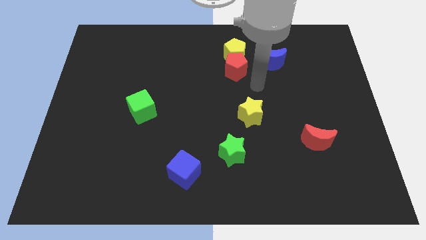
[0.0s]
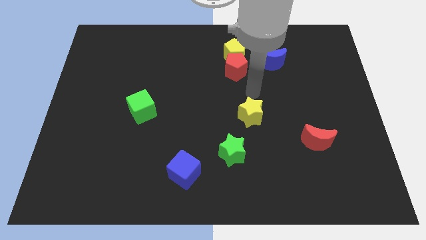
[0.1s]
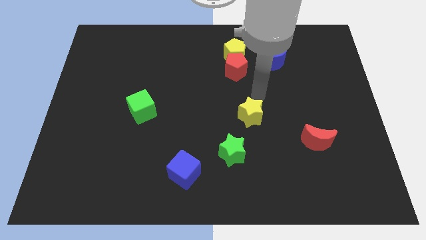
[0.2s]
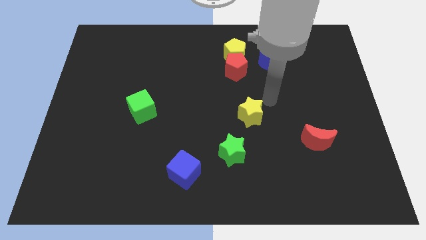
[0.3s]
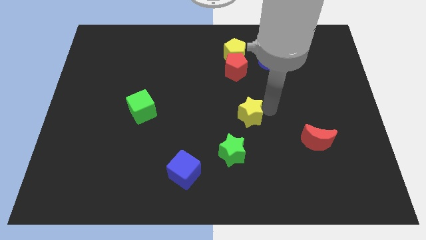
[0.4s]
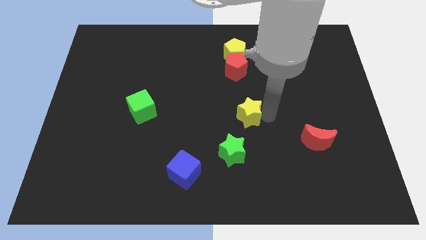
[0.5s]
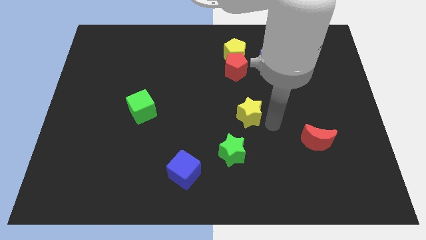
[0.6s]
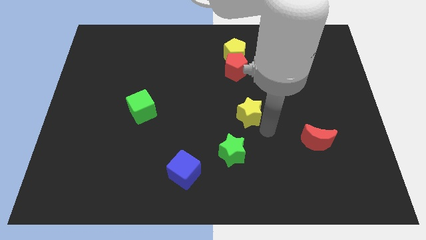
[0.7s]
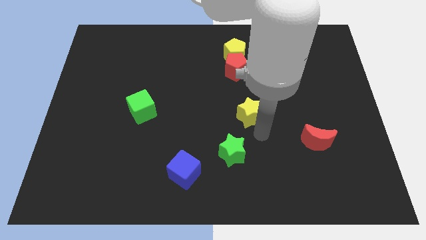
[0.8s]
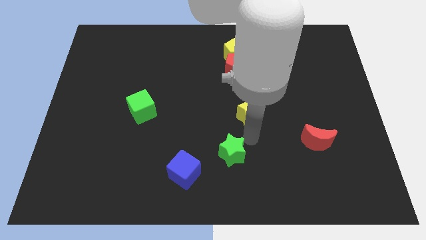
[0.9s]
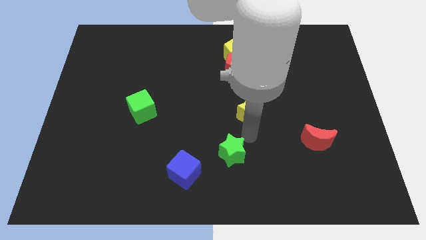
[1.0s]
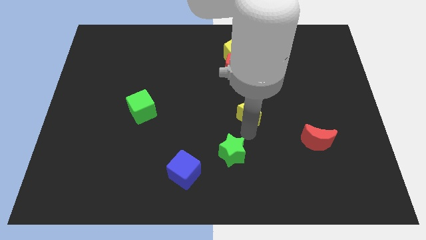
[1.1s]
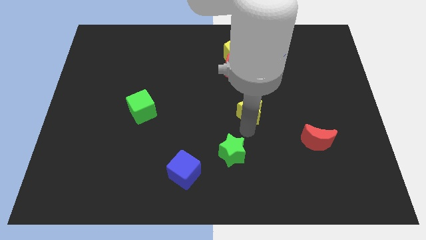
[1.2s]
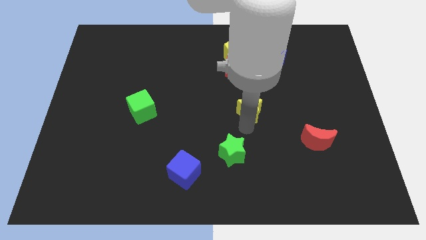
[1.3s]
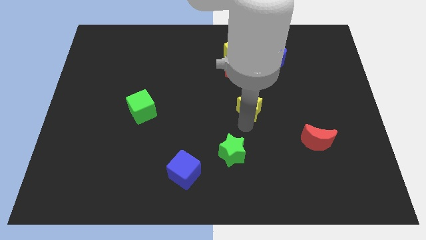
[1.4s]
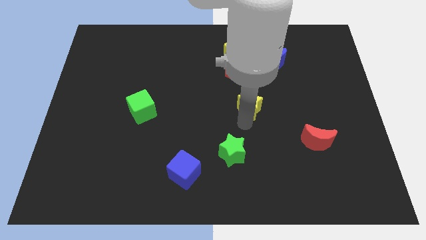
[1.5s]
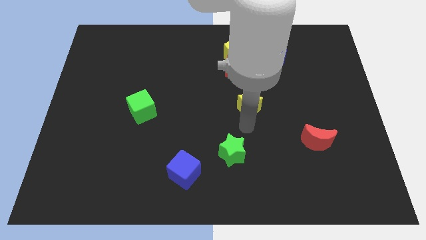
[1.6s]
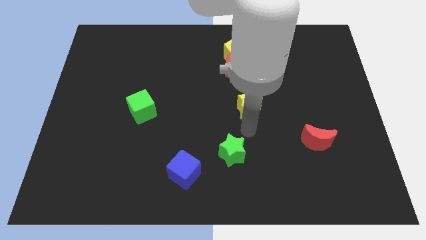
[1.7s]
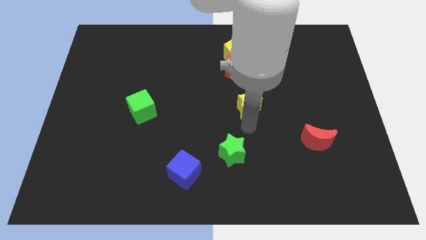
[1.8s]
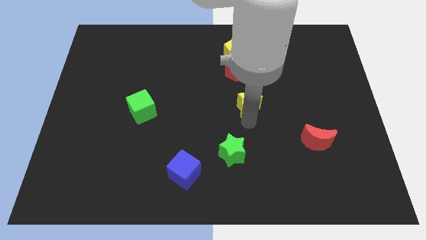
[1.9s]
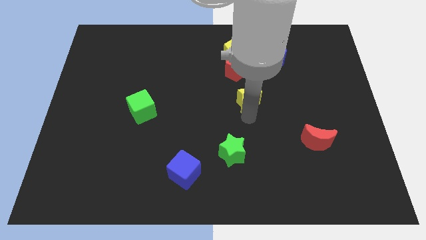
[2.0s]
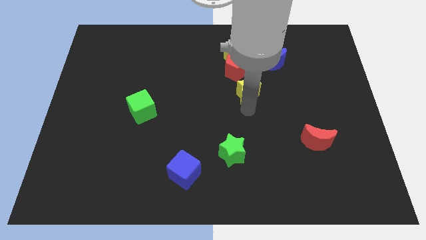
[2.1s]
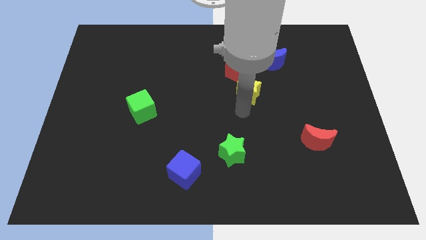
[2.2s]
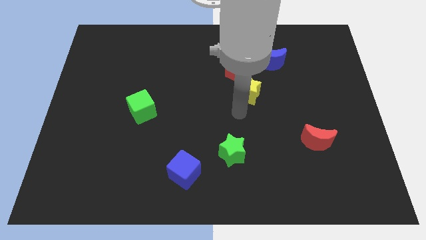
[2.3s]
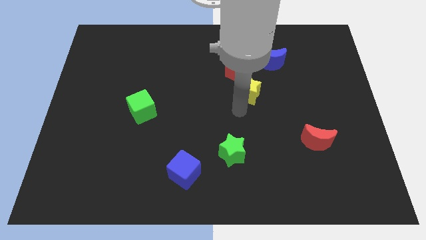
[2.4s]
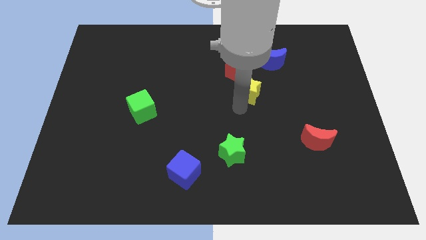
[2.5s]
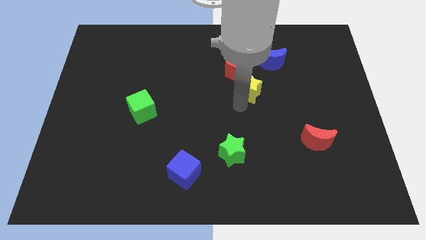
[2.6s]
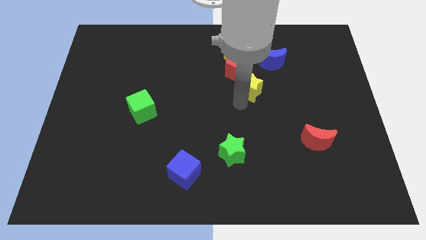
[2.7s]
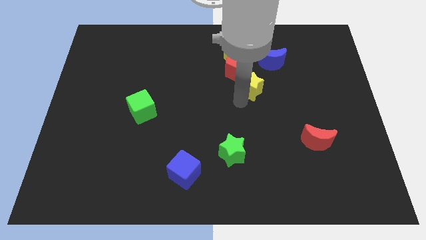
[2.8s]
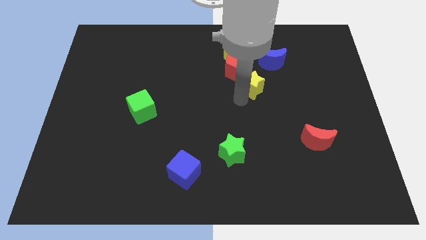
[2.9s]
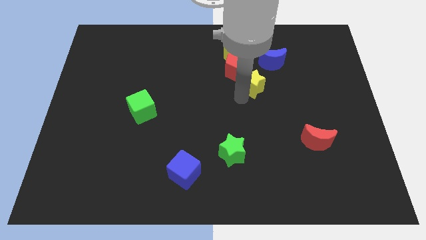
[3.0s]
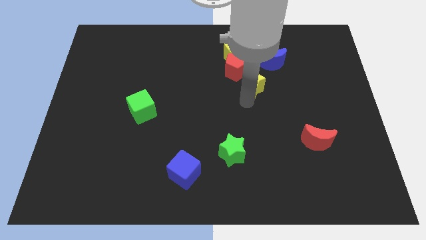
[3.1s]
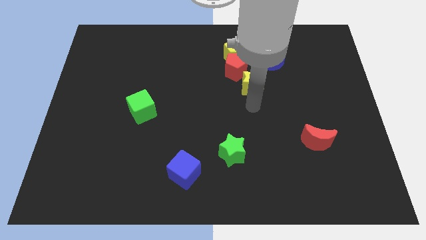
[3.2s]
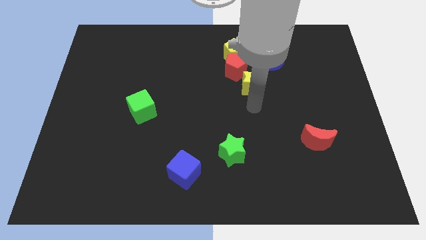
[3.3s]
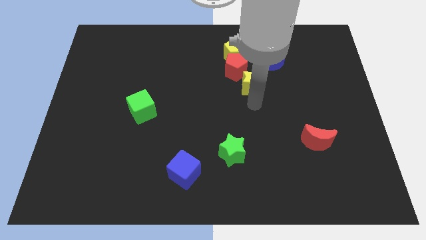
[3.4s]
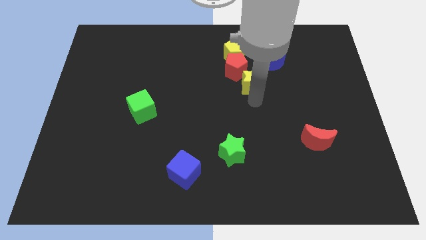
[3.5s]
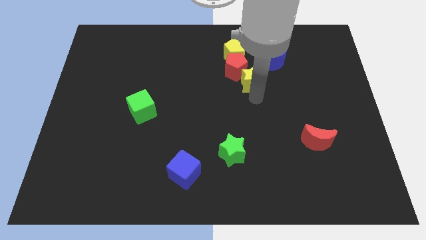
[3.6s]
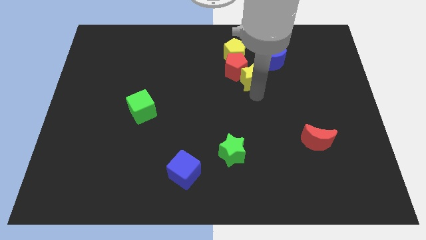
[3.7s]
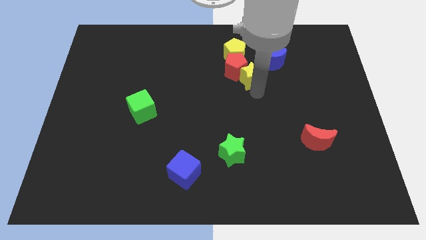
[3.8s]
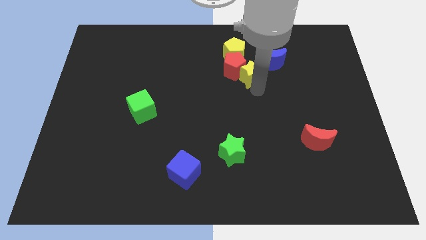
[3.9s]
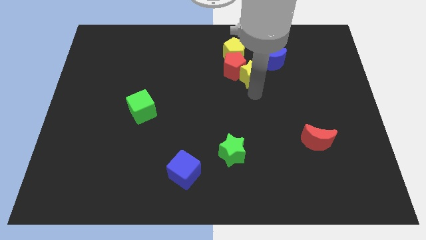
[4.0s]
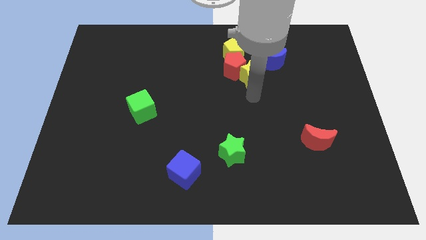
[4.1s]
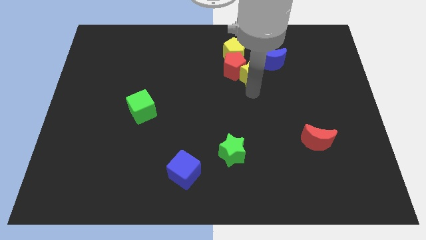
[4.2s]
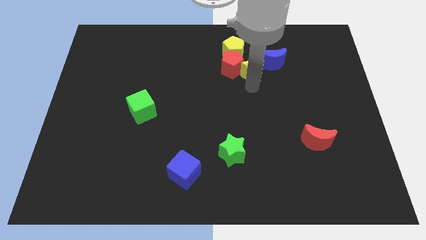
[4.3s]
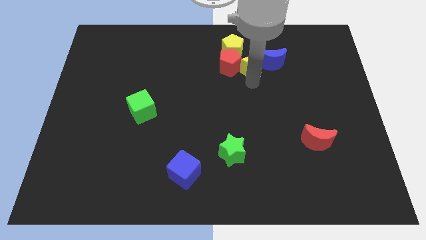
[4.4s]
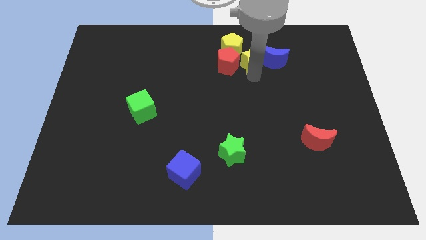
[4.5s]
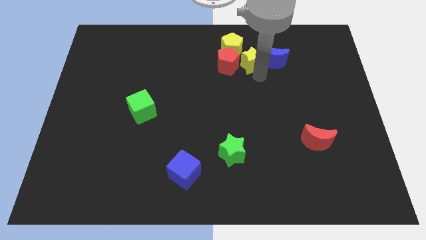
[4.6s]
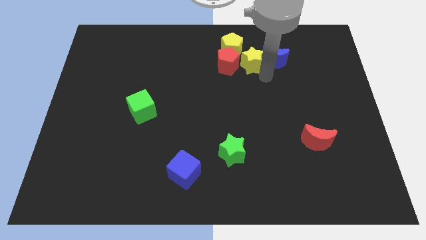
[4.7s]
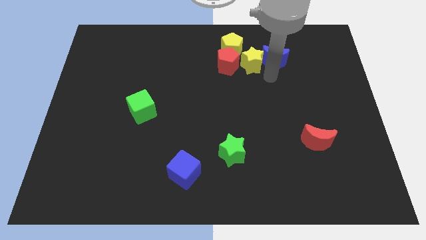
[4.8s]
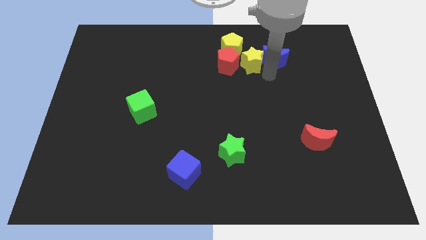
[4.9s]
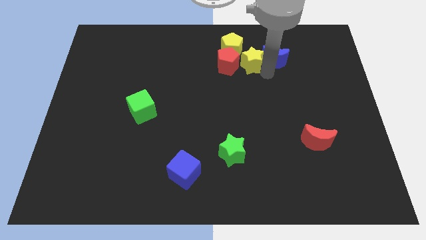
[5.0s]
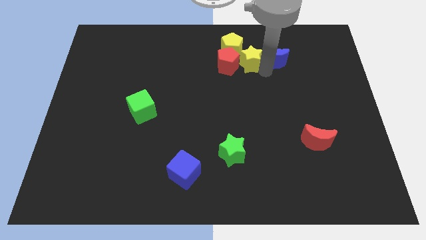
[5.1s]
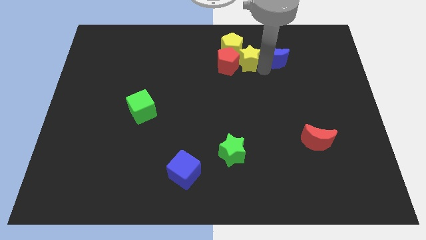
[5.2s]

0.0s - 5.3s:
slide the yellow star close to the yellow pentagon

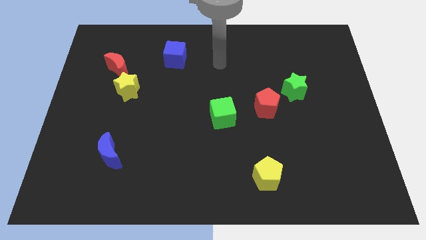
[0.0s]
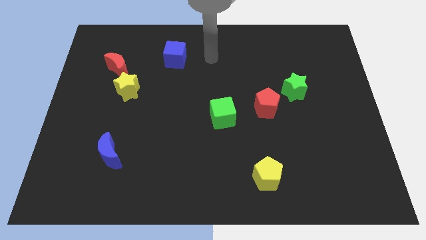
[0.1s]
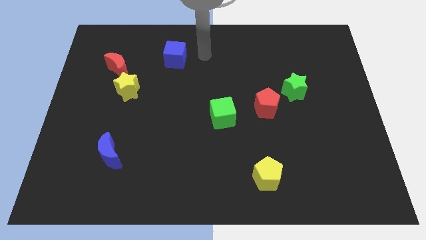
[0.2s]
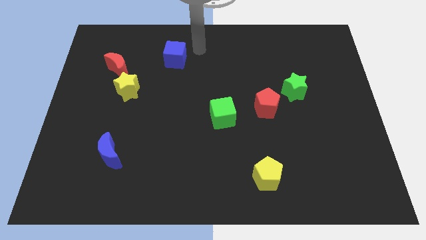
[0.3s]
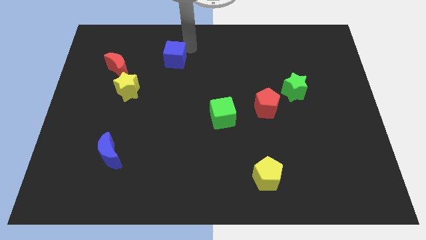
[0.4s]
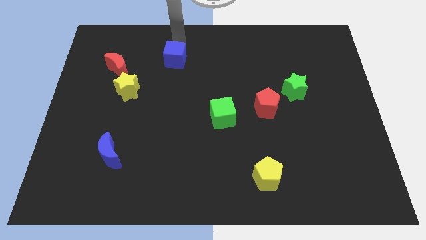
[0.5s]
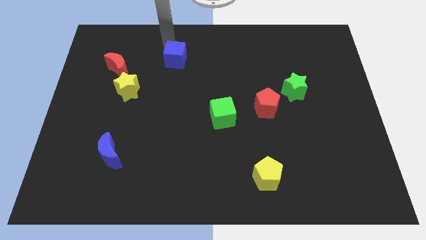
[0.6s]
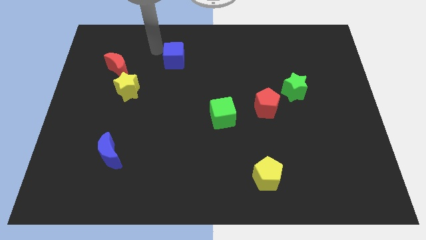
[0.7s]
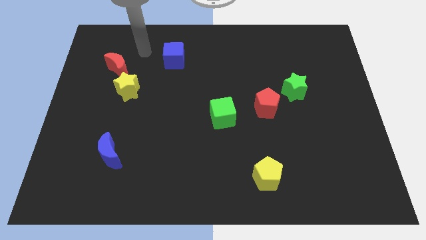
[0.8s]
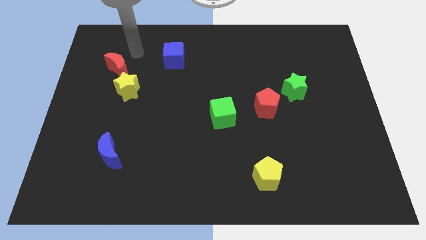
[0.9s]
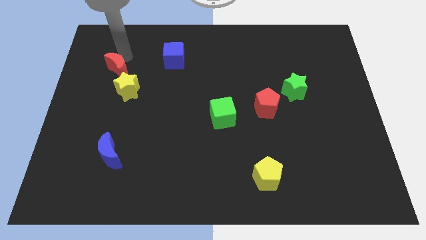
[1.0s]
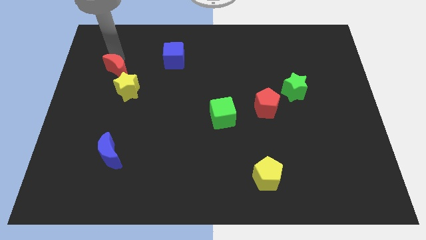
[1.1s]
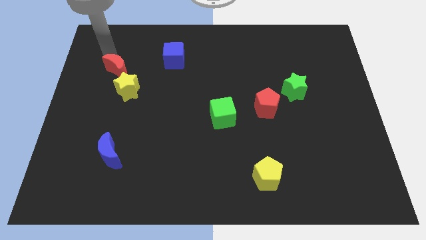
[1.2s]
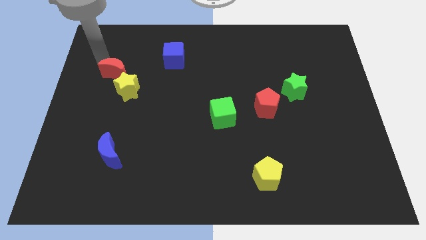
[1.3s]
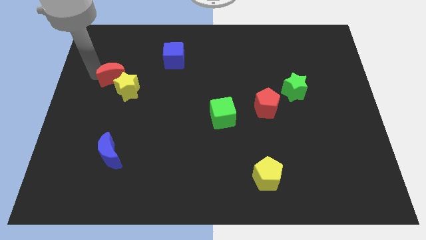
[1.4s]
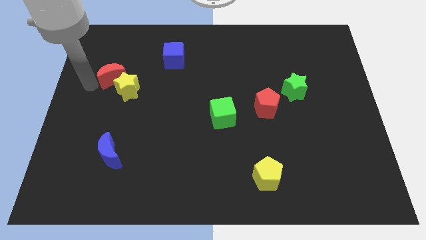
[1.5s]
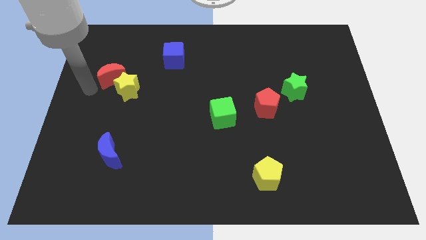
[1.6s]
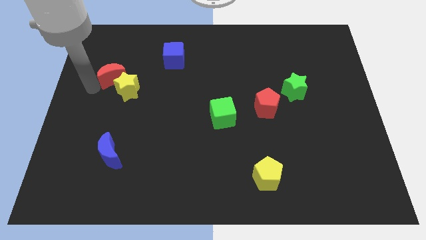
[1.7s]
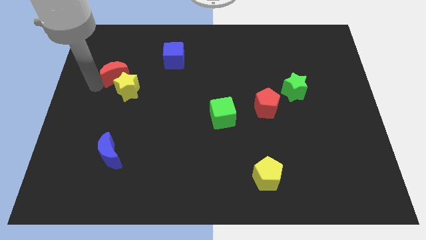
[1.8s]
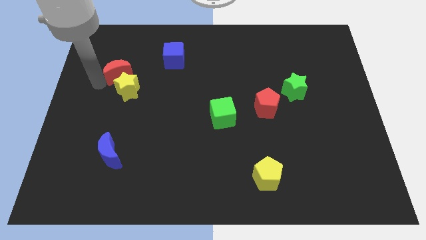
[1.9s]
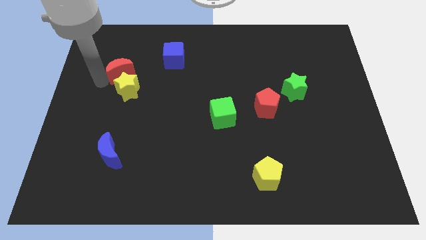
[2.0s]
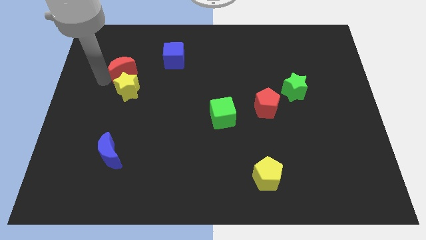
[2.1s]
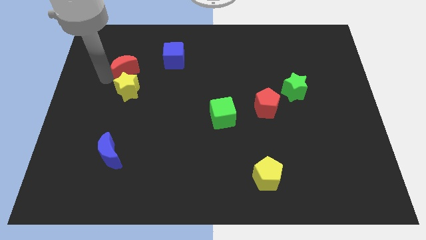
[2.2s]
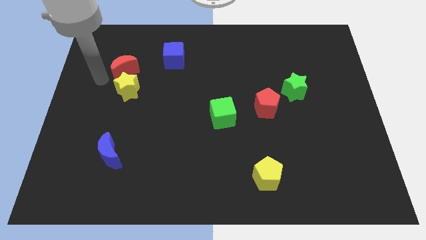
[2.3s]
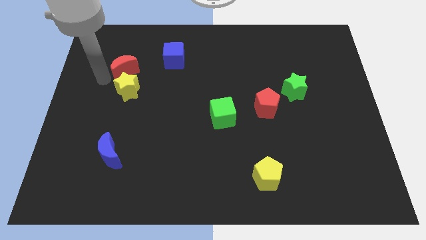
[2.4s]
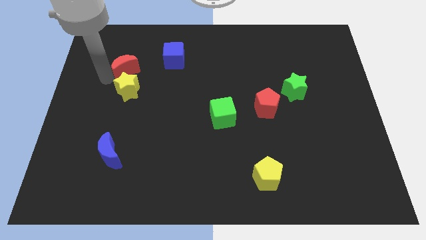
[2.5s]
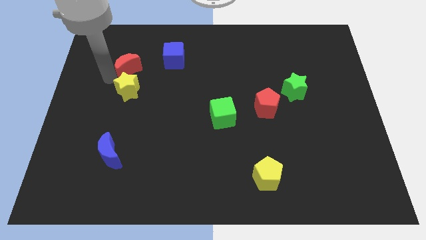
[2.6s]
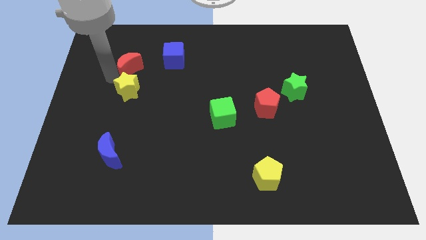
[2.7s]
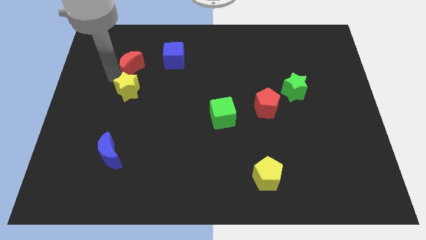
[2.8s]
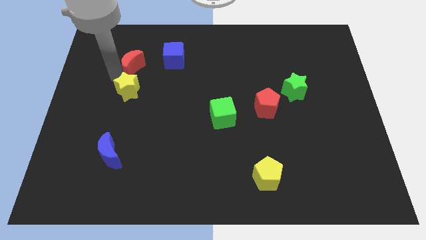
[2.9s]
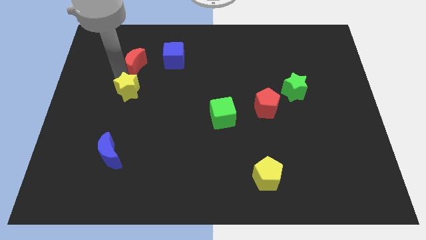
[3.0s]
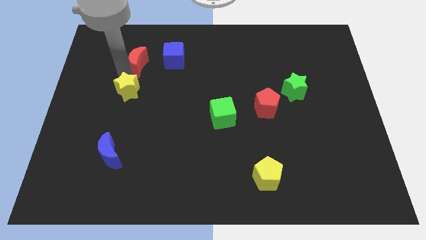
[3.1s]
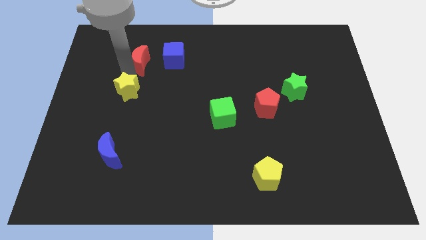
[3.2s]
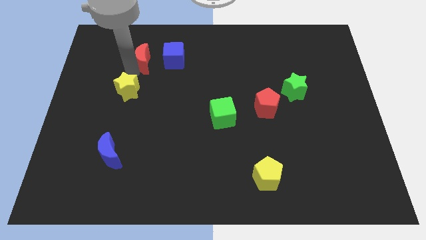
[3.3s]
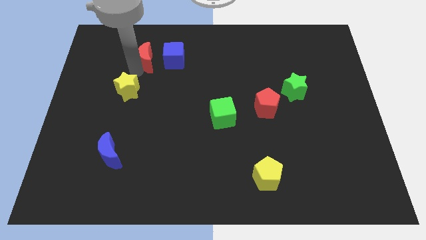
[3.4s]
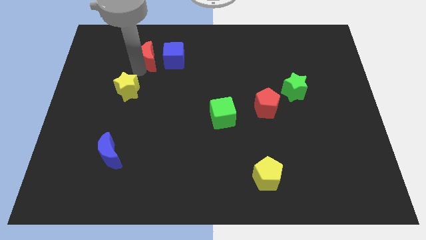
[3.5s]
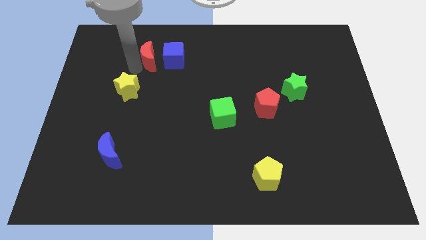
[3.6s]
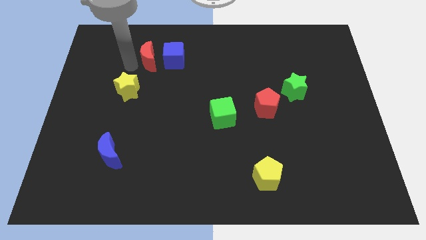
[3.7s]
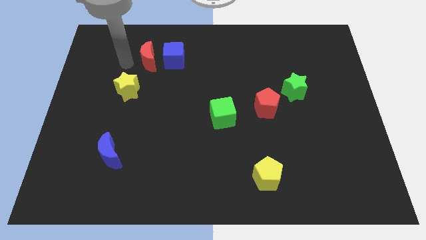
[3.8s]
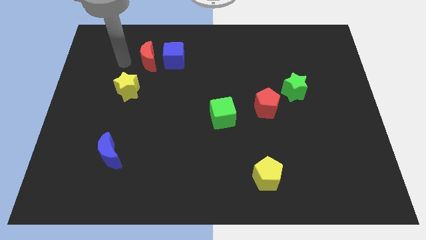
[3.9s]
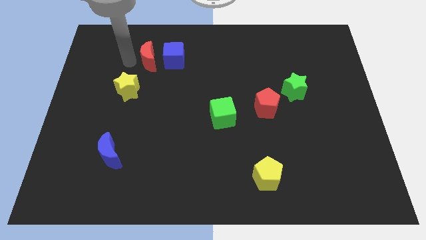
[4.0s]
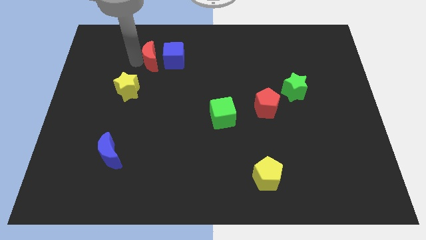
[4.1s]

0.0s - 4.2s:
move the red moon close to the blue cube
